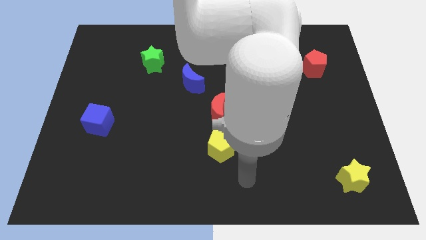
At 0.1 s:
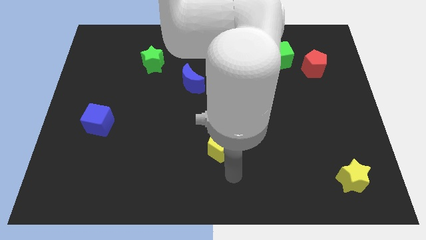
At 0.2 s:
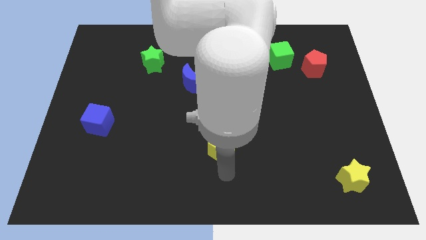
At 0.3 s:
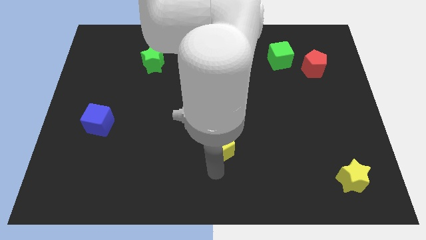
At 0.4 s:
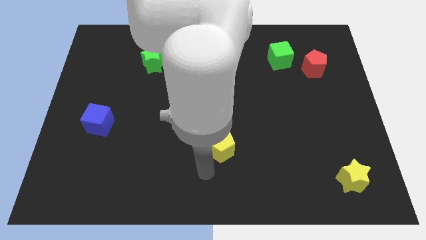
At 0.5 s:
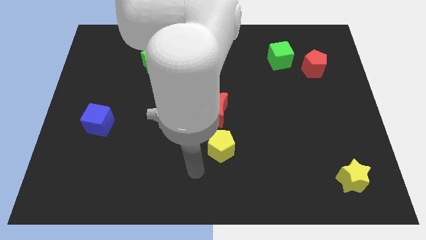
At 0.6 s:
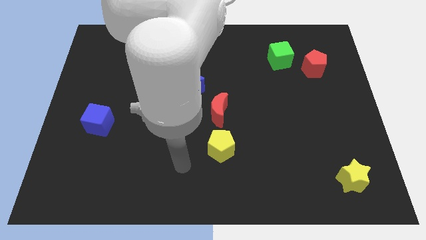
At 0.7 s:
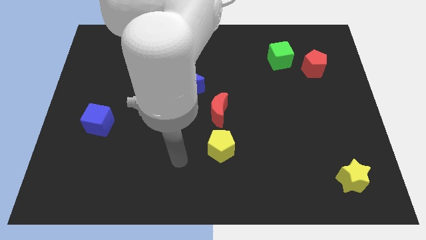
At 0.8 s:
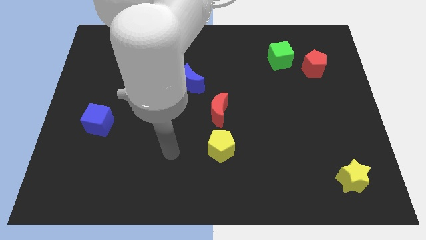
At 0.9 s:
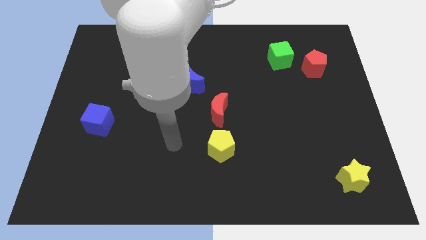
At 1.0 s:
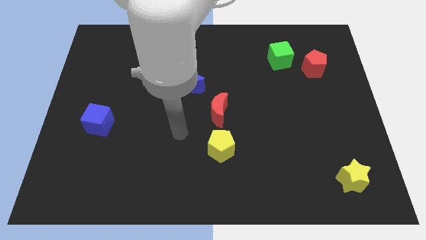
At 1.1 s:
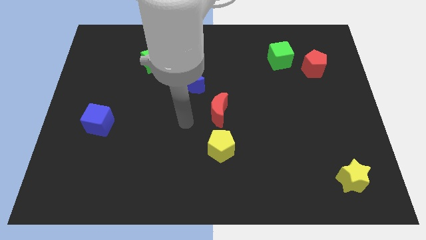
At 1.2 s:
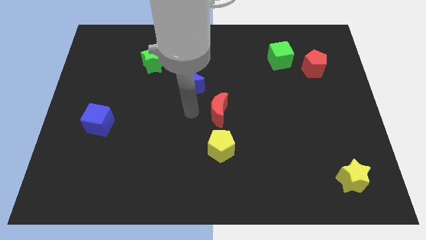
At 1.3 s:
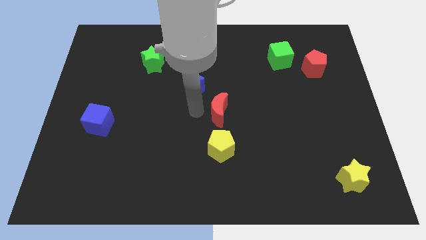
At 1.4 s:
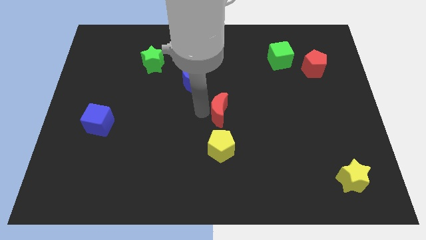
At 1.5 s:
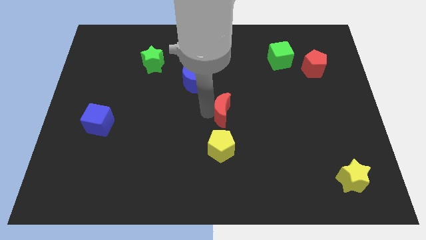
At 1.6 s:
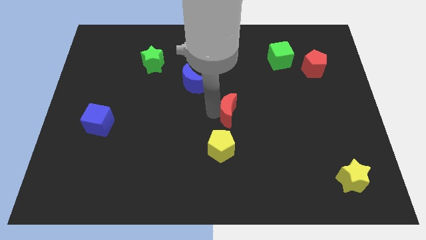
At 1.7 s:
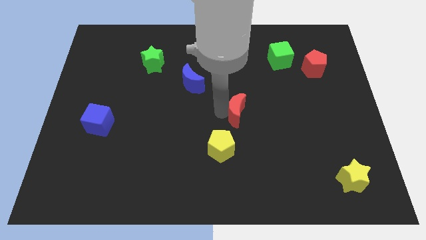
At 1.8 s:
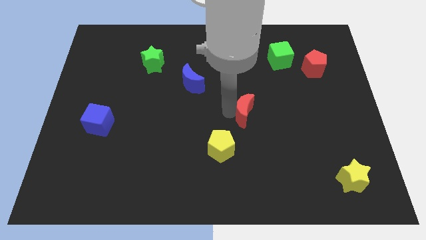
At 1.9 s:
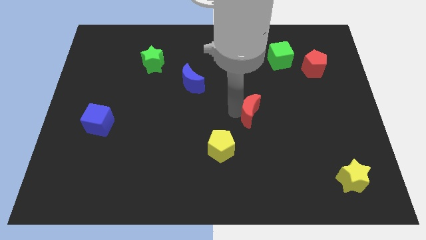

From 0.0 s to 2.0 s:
push the red moon a little to the right

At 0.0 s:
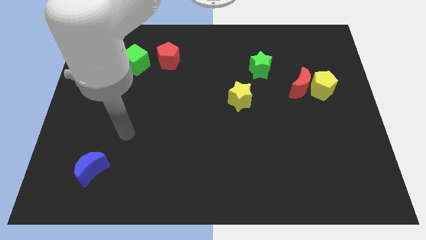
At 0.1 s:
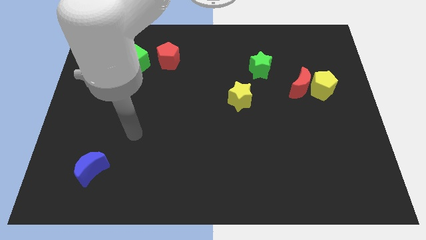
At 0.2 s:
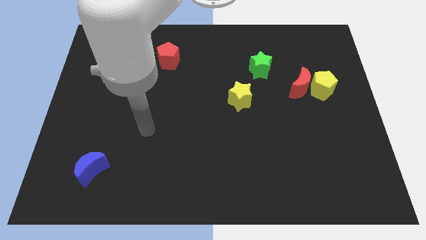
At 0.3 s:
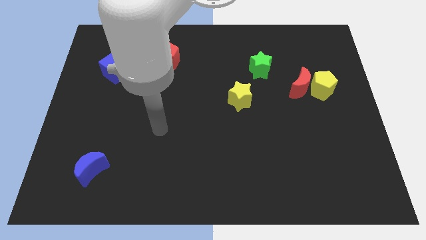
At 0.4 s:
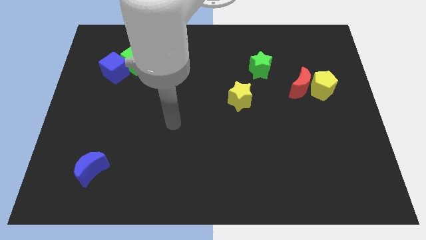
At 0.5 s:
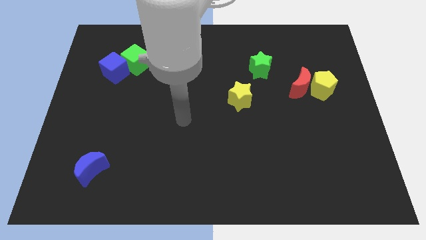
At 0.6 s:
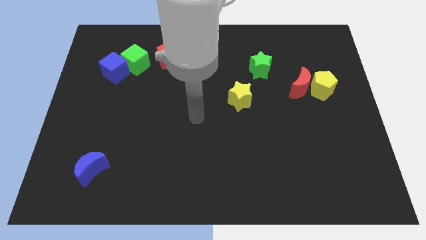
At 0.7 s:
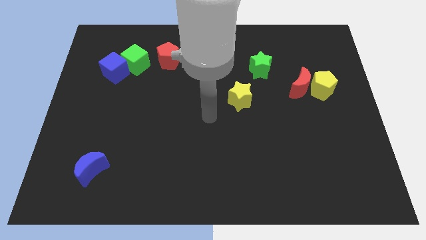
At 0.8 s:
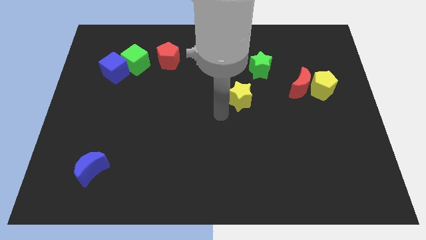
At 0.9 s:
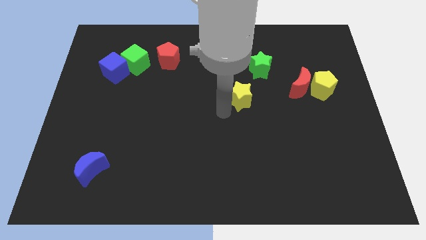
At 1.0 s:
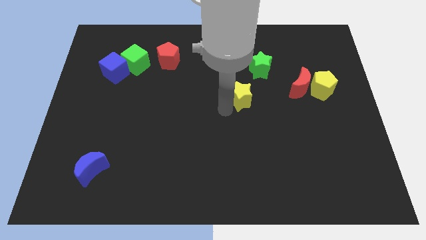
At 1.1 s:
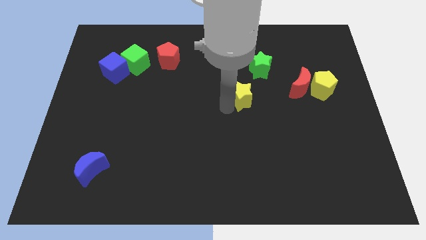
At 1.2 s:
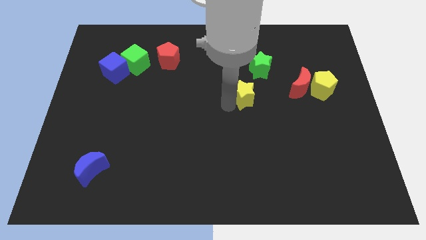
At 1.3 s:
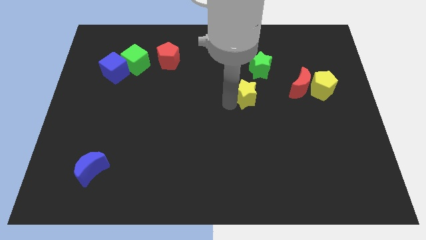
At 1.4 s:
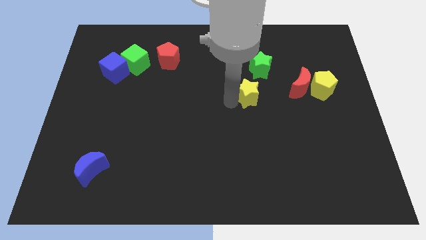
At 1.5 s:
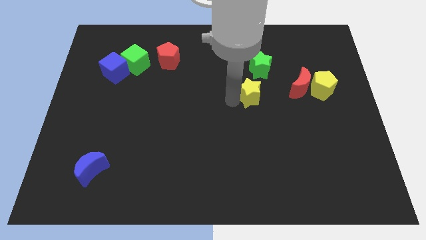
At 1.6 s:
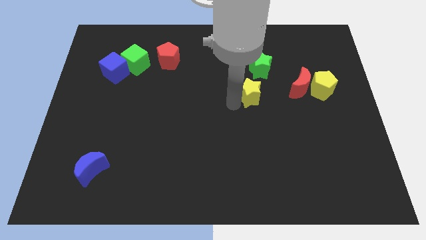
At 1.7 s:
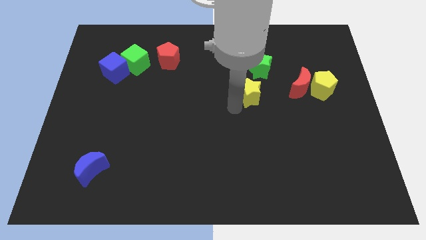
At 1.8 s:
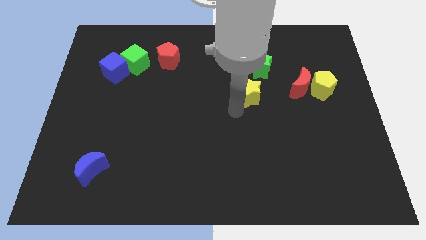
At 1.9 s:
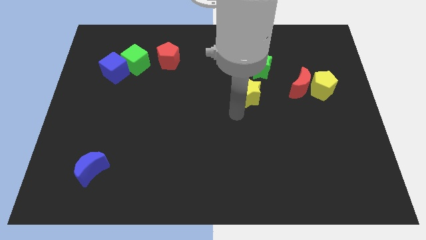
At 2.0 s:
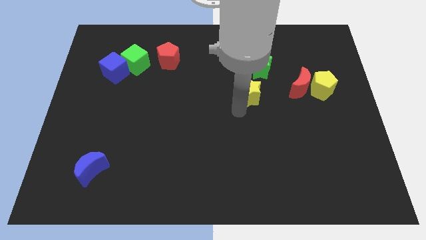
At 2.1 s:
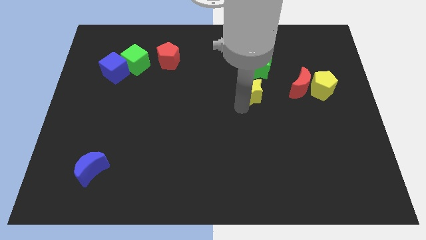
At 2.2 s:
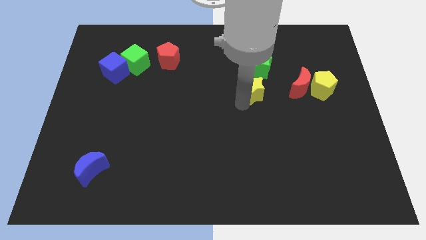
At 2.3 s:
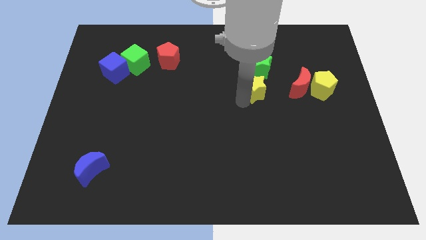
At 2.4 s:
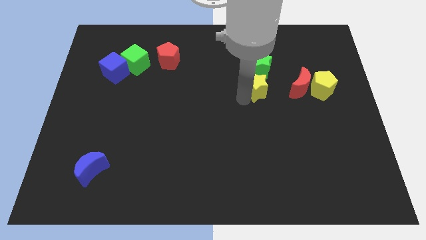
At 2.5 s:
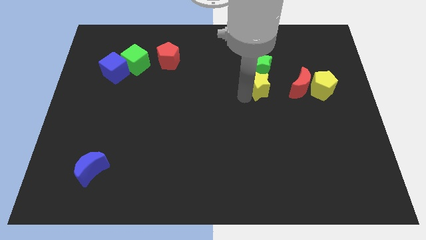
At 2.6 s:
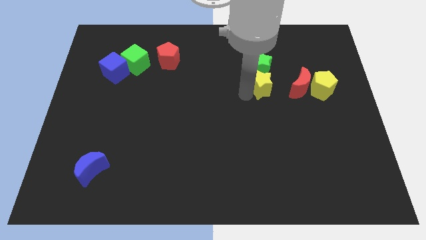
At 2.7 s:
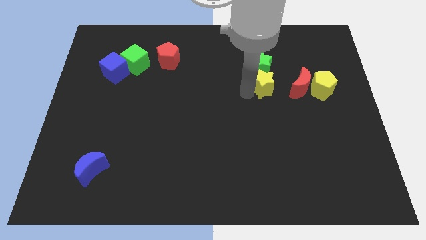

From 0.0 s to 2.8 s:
slide the yellow star a little bit diagonally up and right

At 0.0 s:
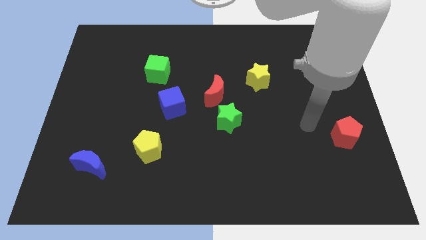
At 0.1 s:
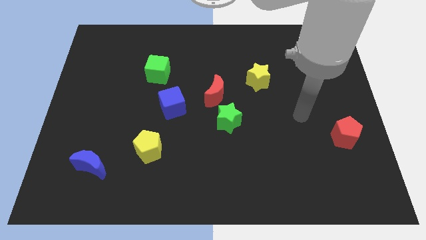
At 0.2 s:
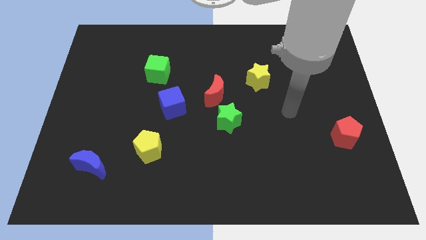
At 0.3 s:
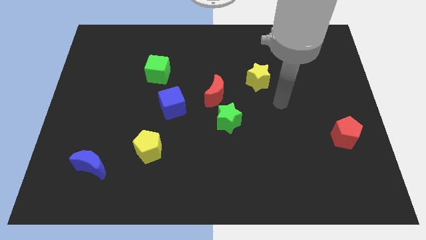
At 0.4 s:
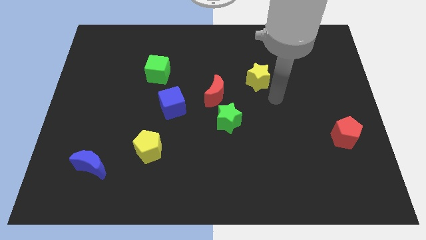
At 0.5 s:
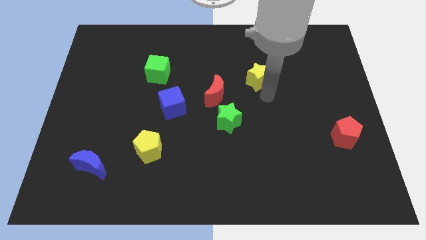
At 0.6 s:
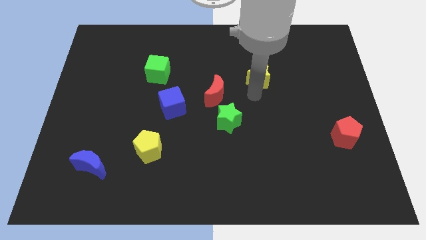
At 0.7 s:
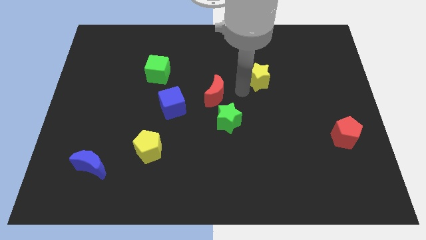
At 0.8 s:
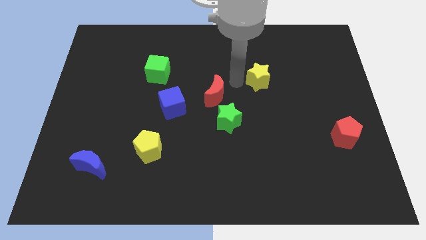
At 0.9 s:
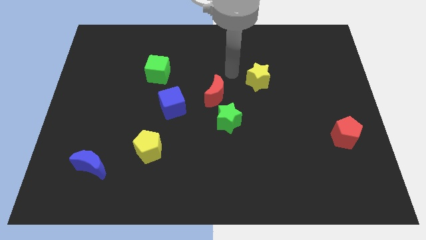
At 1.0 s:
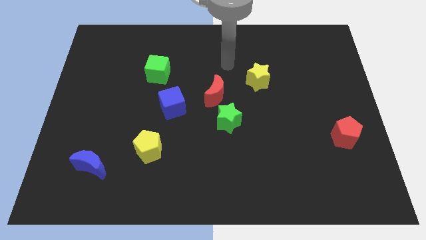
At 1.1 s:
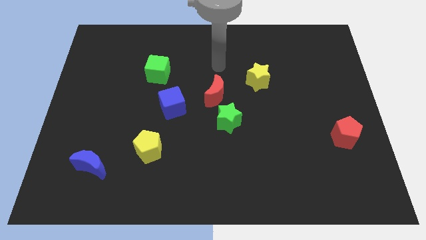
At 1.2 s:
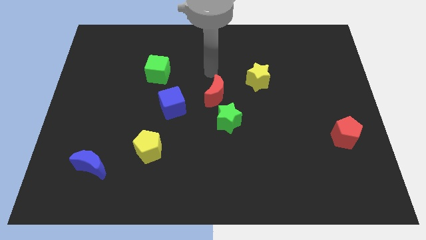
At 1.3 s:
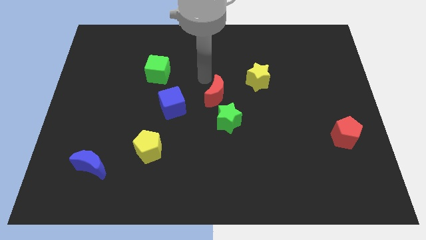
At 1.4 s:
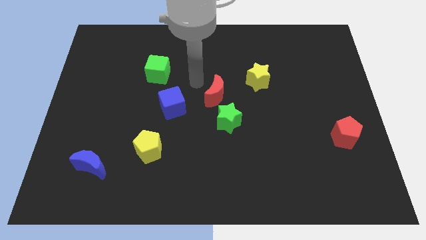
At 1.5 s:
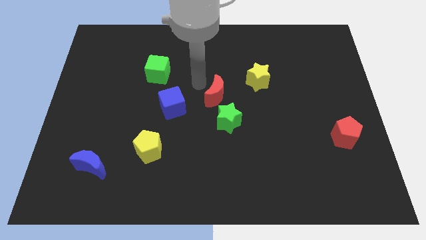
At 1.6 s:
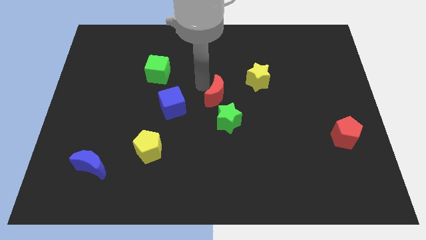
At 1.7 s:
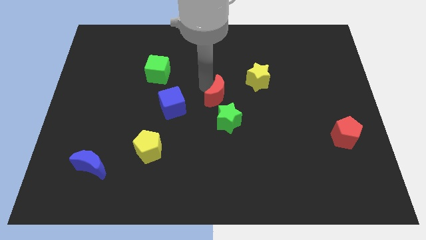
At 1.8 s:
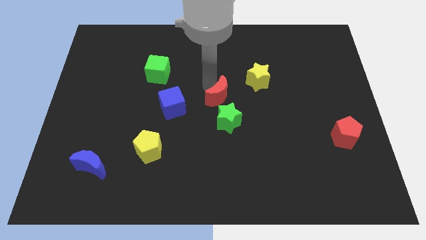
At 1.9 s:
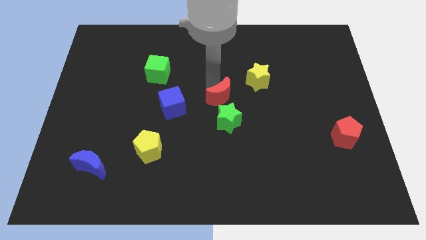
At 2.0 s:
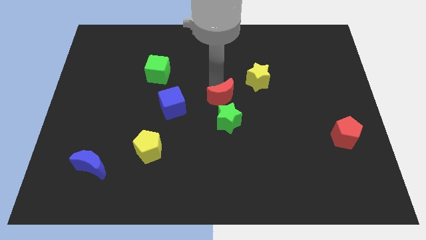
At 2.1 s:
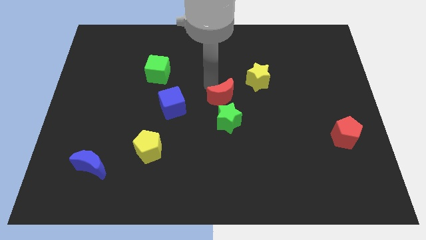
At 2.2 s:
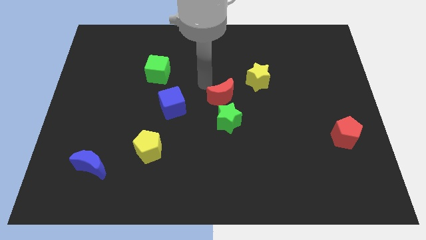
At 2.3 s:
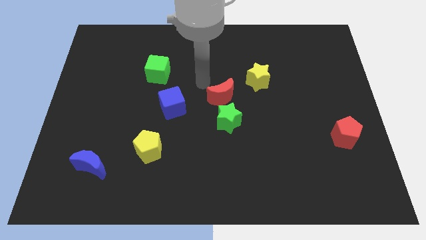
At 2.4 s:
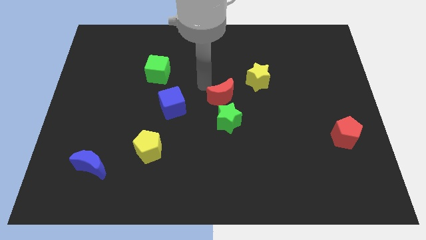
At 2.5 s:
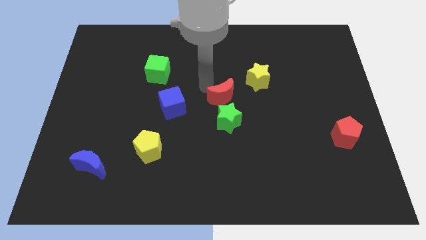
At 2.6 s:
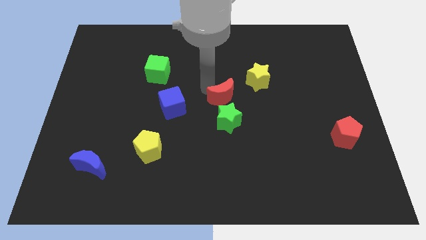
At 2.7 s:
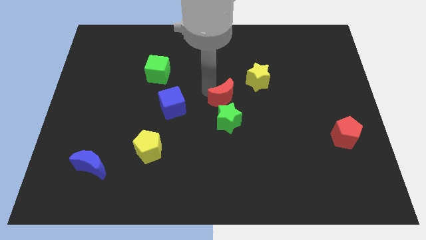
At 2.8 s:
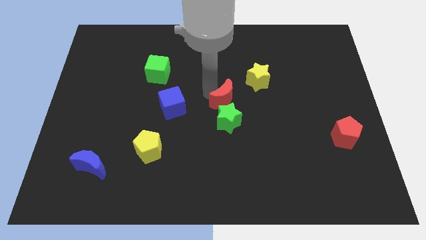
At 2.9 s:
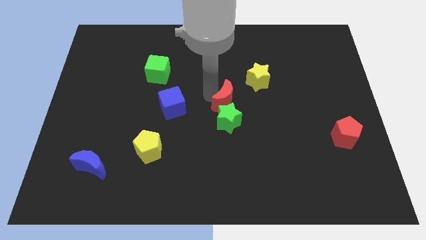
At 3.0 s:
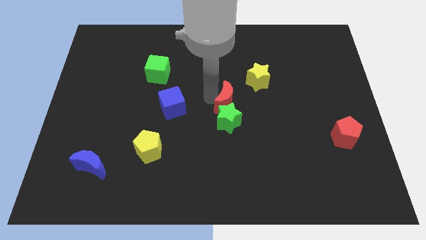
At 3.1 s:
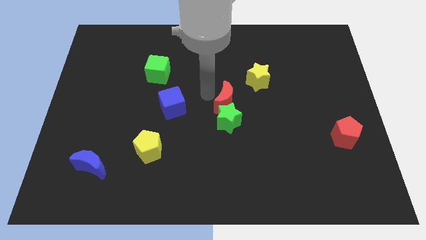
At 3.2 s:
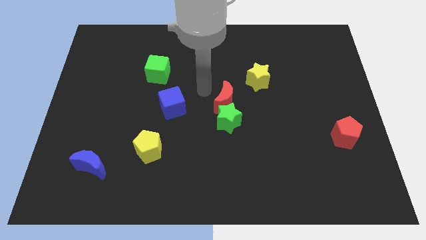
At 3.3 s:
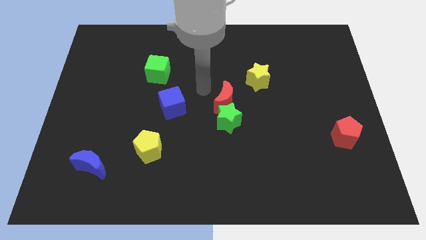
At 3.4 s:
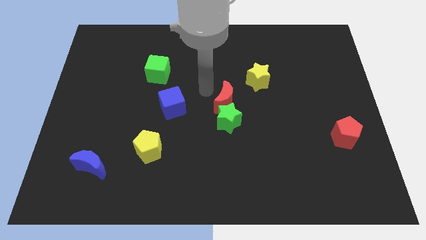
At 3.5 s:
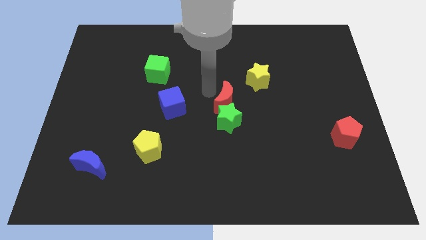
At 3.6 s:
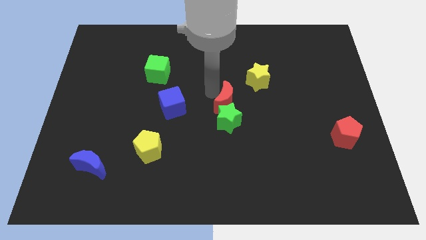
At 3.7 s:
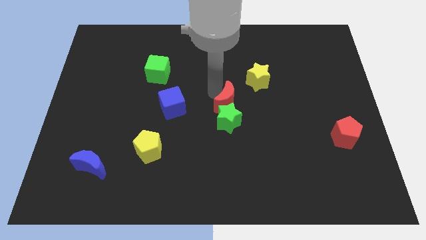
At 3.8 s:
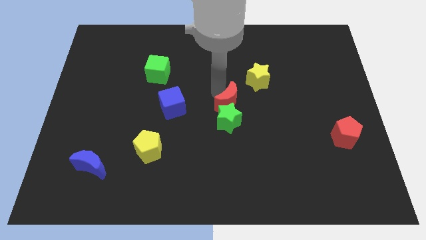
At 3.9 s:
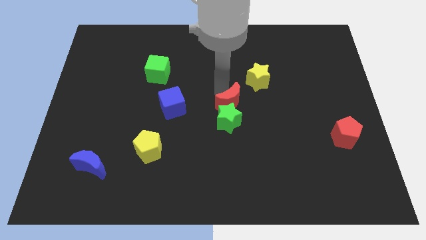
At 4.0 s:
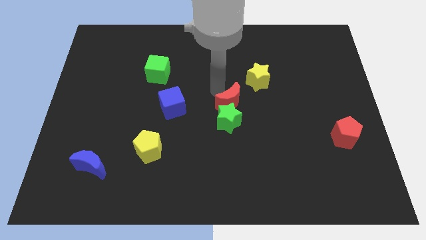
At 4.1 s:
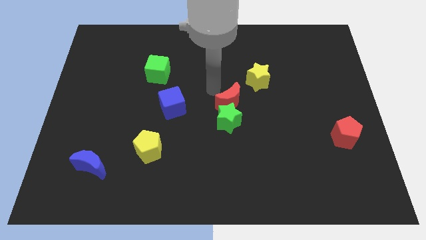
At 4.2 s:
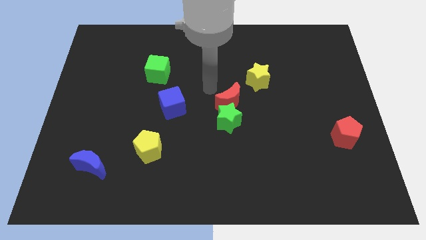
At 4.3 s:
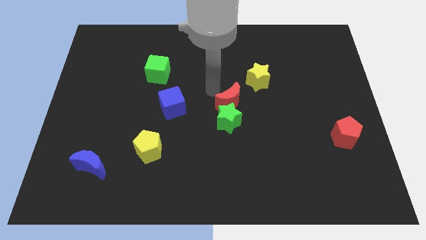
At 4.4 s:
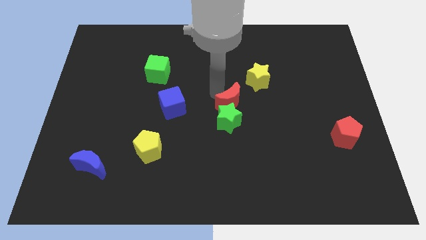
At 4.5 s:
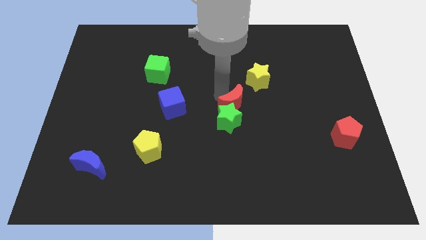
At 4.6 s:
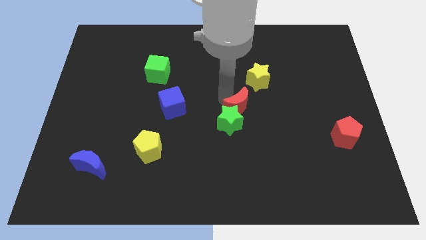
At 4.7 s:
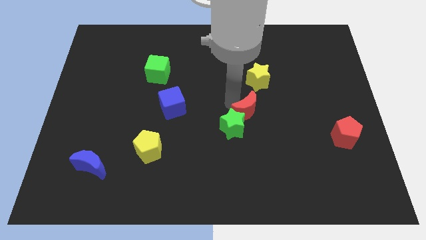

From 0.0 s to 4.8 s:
slightly push the red moon downwards and then right
